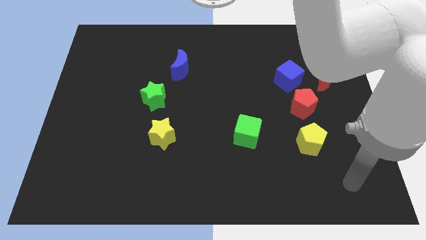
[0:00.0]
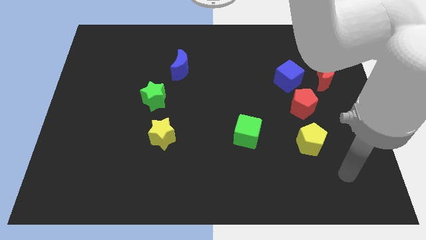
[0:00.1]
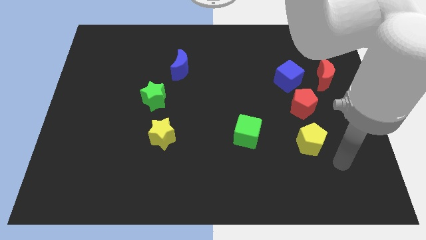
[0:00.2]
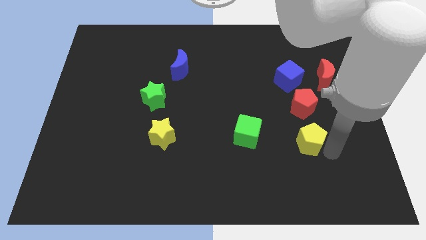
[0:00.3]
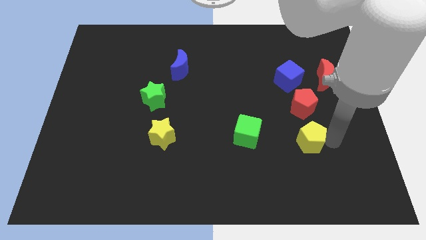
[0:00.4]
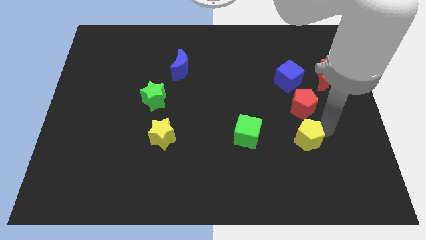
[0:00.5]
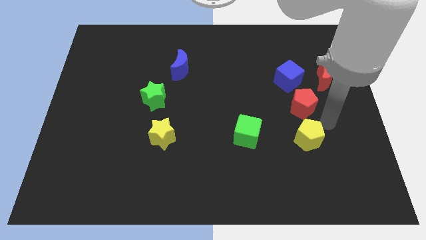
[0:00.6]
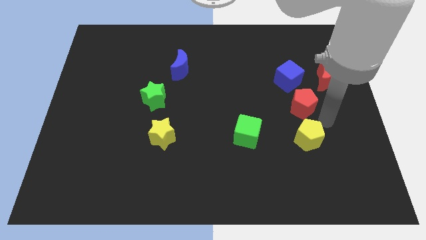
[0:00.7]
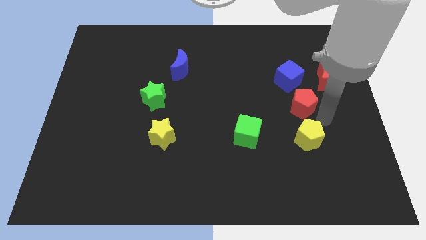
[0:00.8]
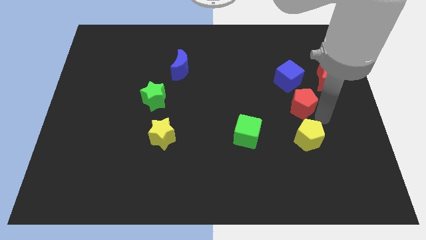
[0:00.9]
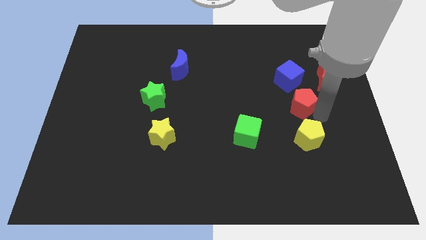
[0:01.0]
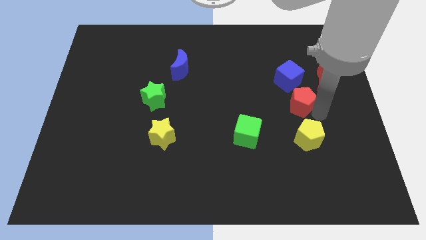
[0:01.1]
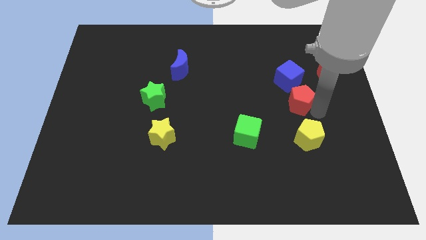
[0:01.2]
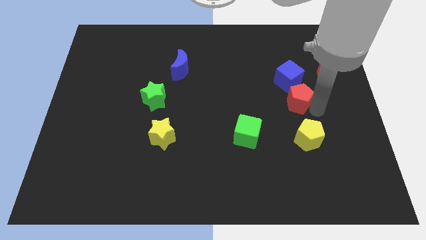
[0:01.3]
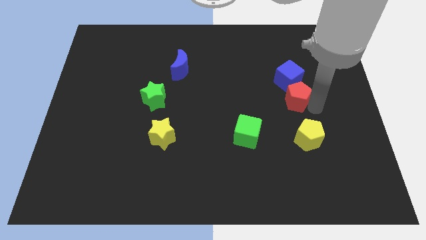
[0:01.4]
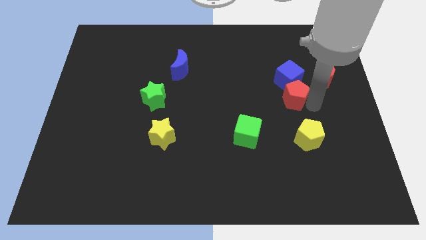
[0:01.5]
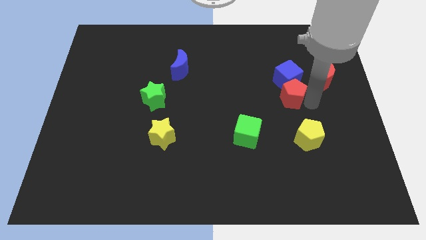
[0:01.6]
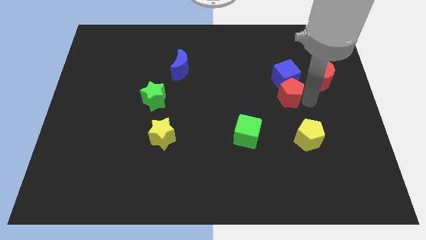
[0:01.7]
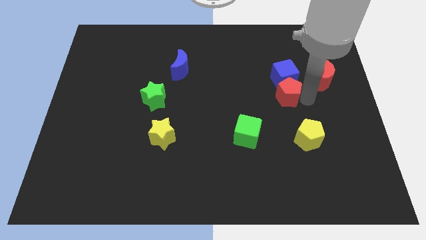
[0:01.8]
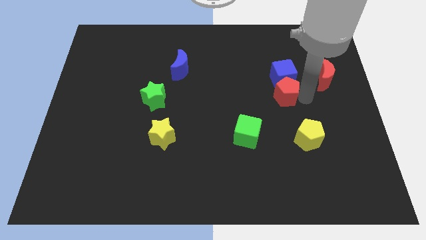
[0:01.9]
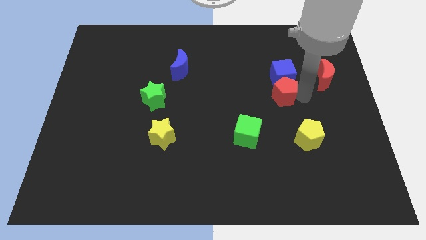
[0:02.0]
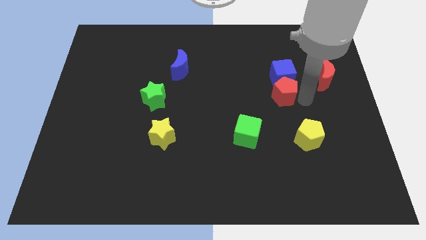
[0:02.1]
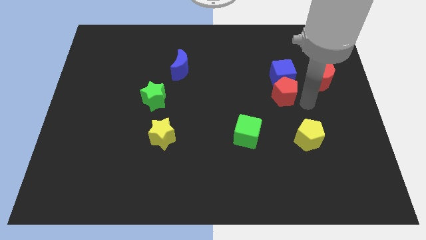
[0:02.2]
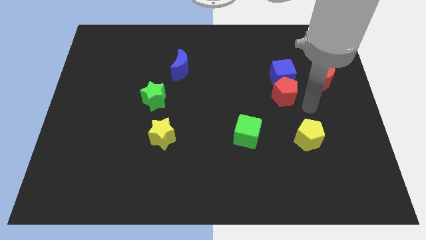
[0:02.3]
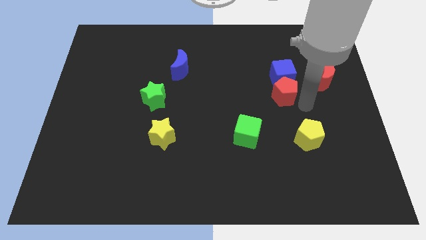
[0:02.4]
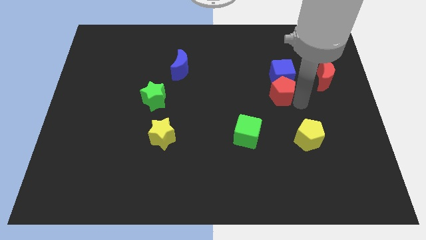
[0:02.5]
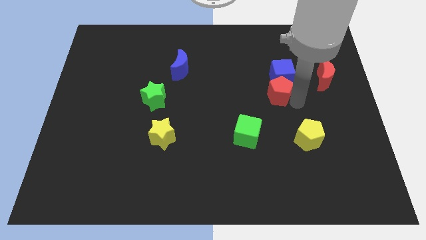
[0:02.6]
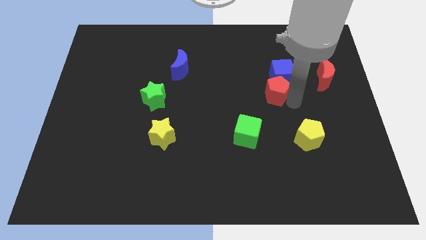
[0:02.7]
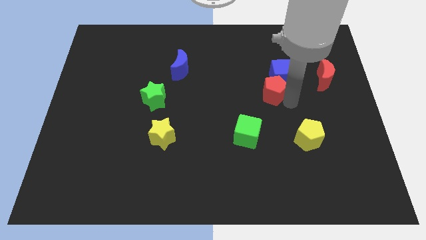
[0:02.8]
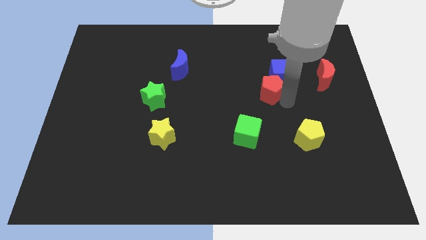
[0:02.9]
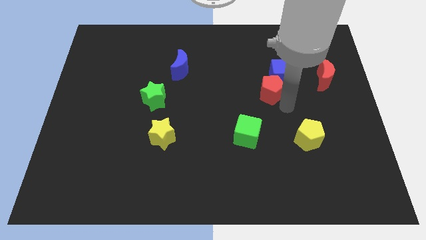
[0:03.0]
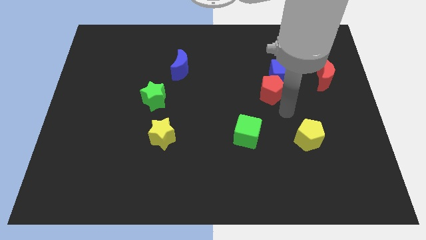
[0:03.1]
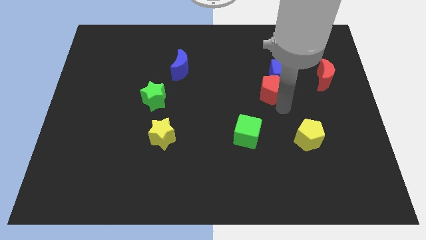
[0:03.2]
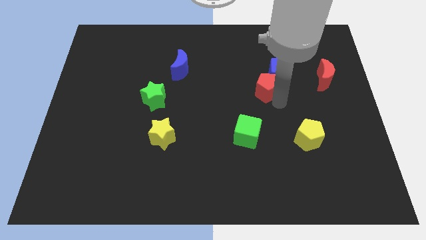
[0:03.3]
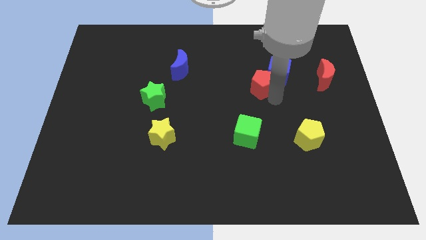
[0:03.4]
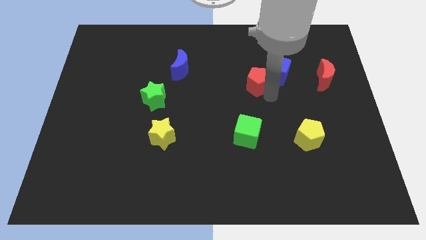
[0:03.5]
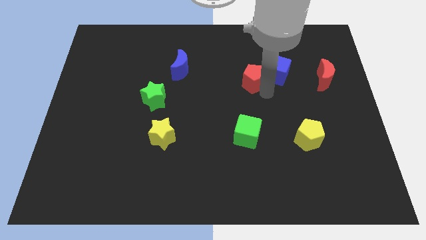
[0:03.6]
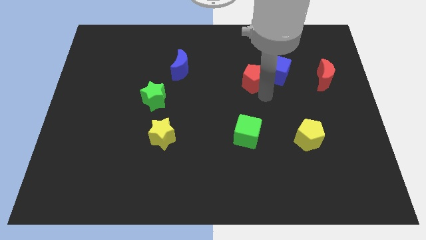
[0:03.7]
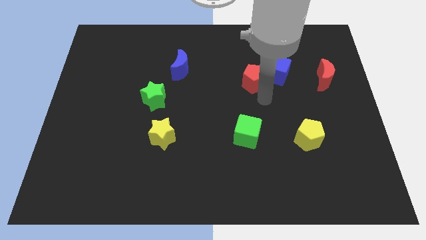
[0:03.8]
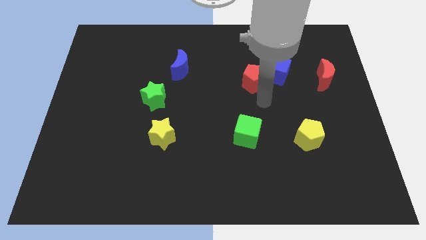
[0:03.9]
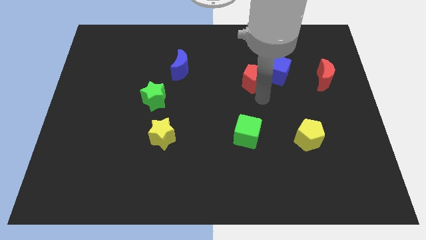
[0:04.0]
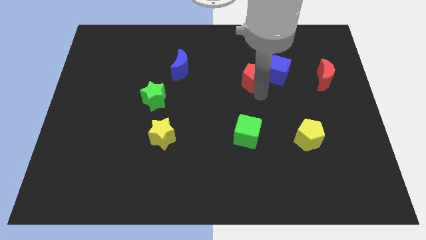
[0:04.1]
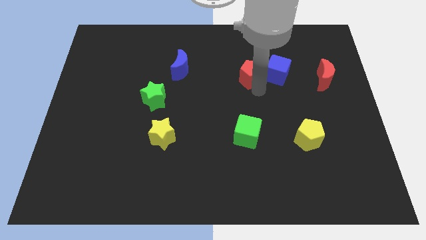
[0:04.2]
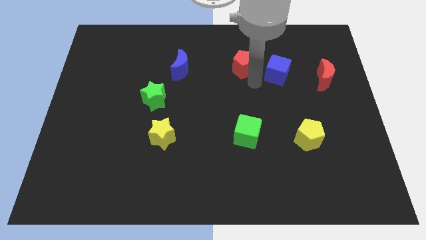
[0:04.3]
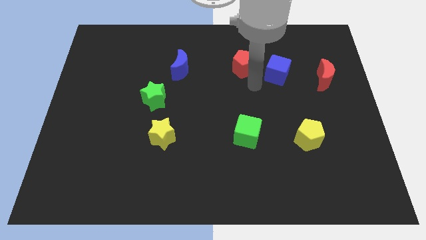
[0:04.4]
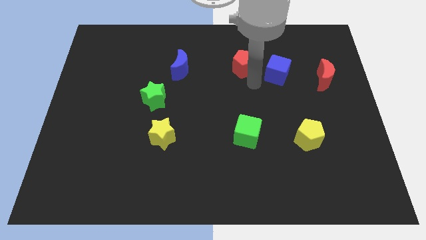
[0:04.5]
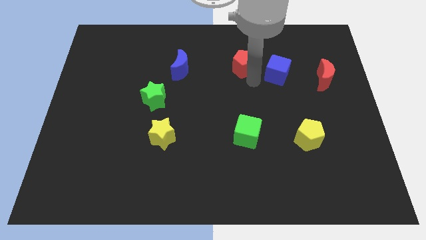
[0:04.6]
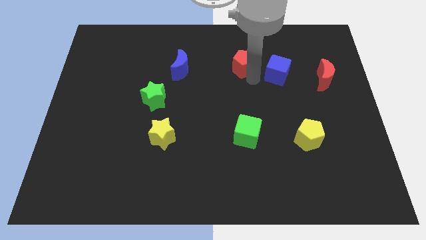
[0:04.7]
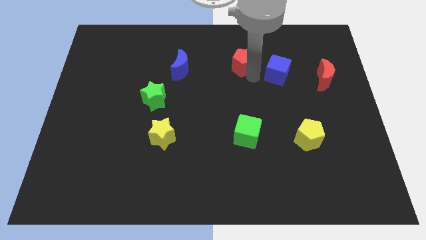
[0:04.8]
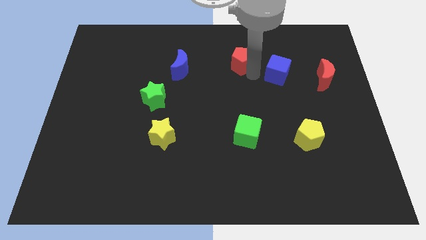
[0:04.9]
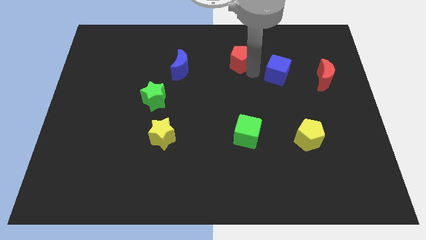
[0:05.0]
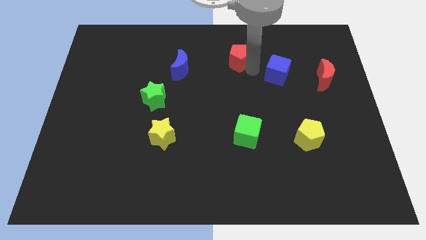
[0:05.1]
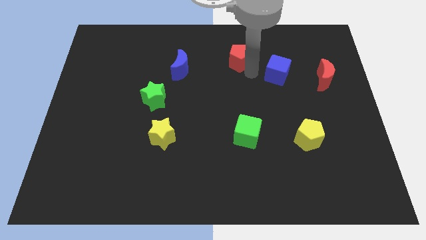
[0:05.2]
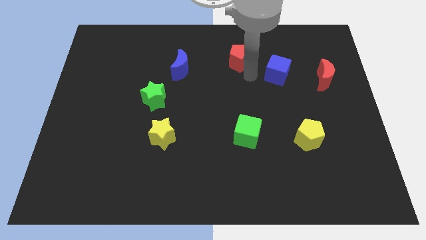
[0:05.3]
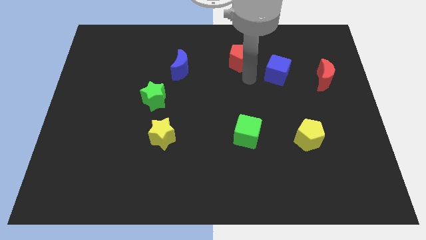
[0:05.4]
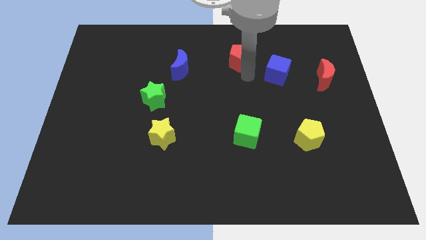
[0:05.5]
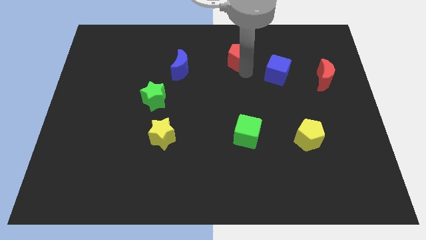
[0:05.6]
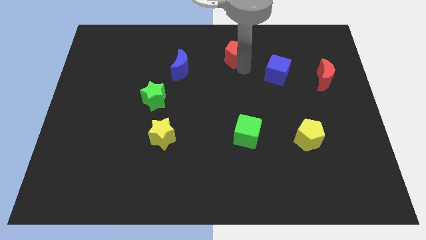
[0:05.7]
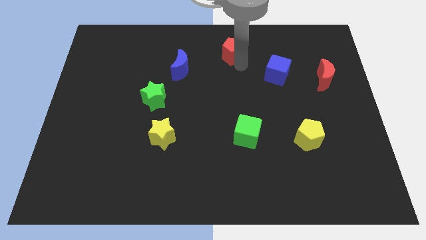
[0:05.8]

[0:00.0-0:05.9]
push the red pentagon to the top

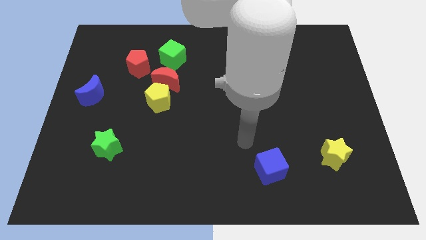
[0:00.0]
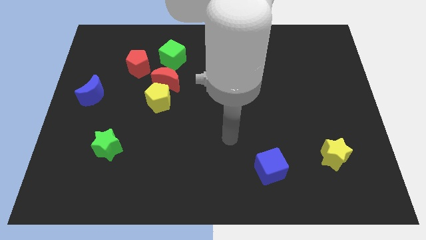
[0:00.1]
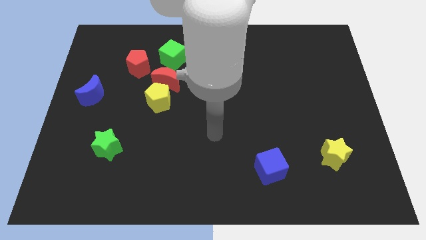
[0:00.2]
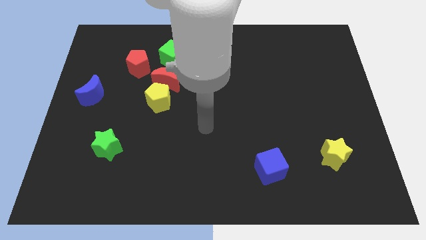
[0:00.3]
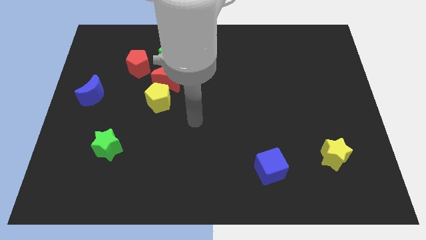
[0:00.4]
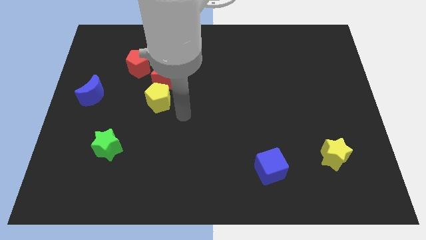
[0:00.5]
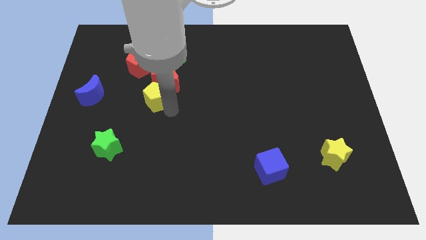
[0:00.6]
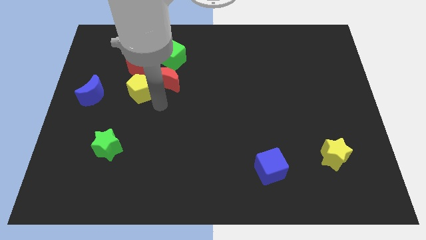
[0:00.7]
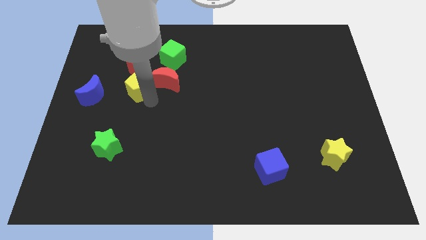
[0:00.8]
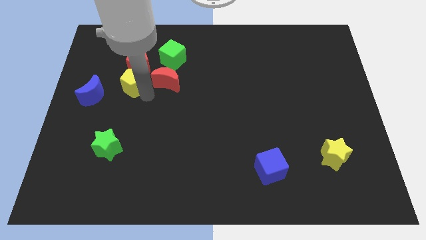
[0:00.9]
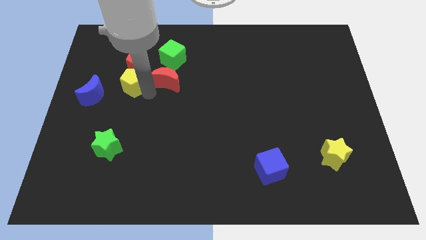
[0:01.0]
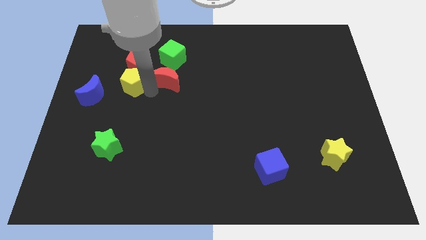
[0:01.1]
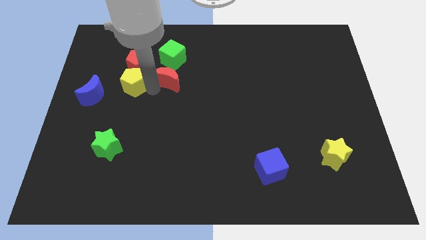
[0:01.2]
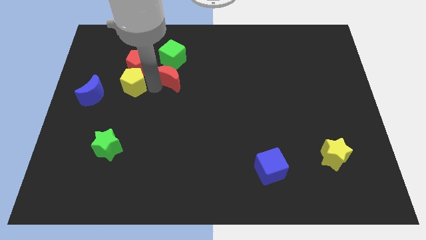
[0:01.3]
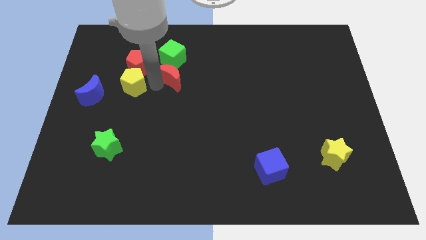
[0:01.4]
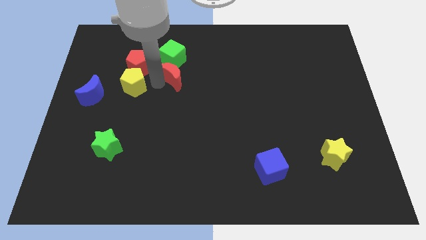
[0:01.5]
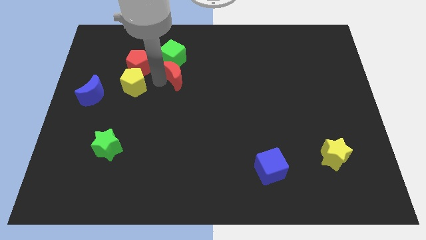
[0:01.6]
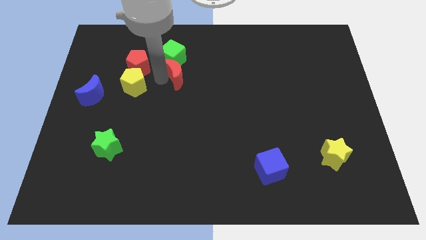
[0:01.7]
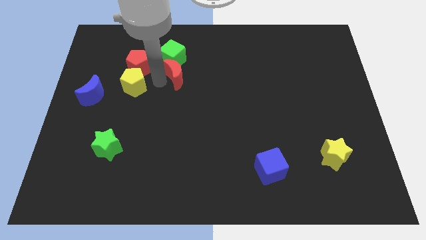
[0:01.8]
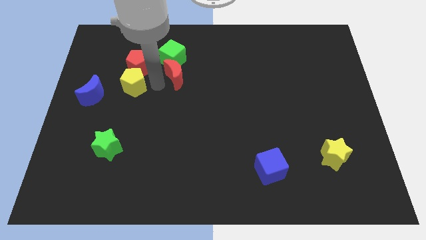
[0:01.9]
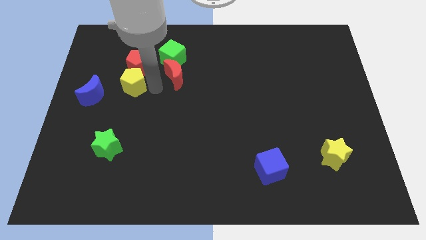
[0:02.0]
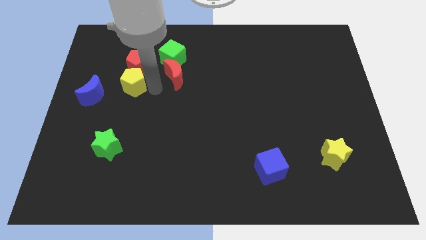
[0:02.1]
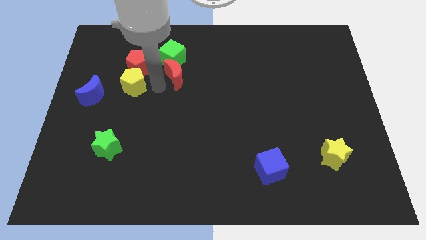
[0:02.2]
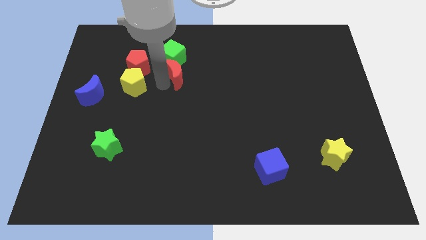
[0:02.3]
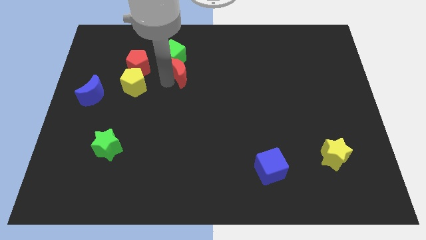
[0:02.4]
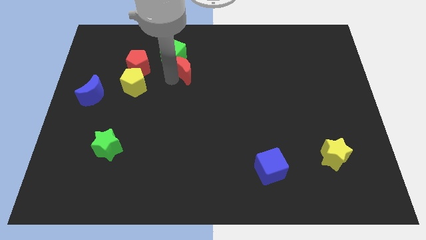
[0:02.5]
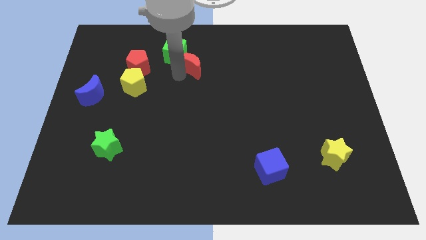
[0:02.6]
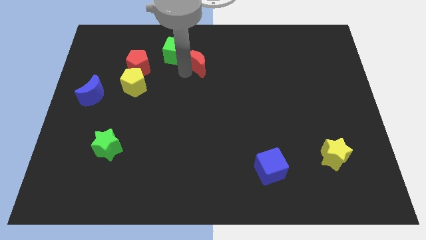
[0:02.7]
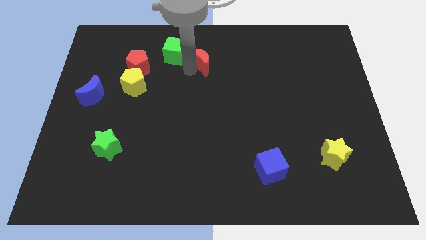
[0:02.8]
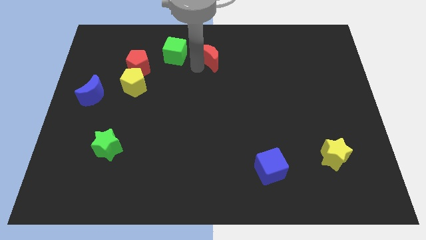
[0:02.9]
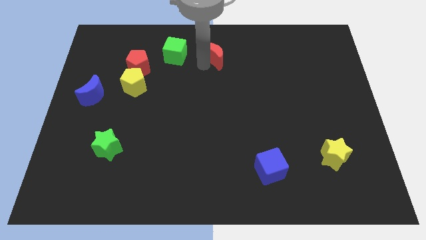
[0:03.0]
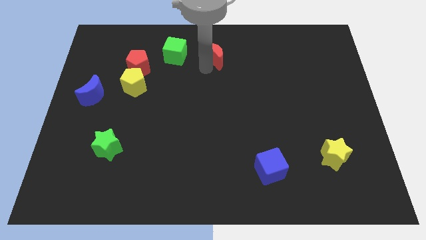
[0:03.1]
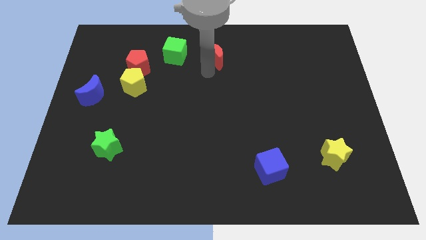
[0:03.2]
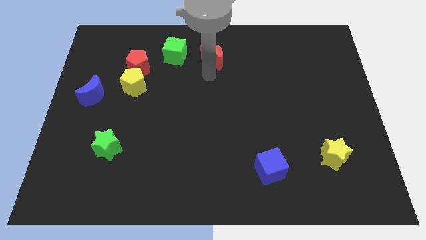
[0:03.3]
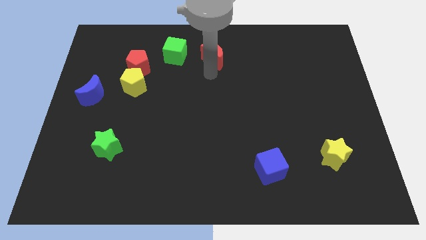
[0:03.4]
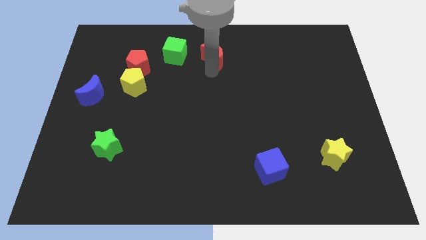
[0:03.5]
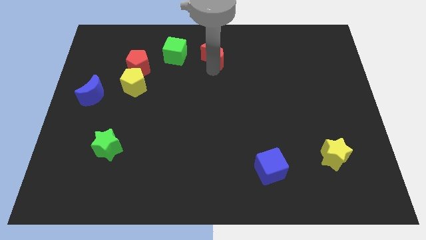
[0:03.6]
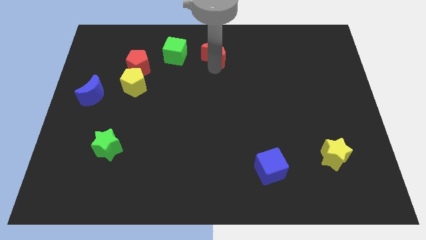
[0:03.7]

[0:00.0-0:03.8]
slide the red moon to the top
